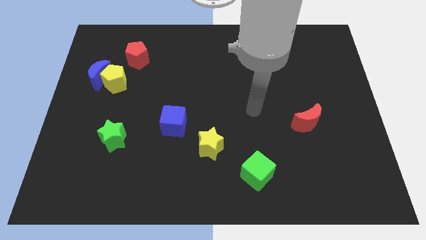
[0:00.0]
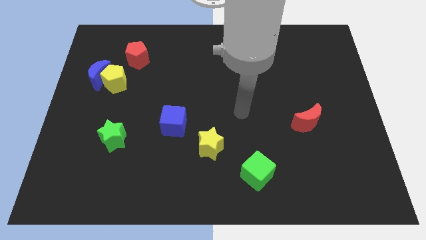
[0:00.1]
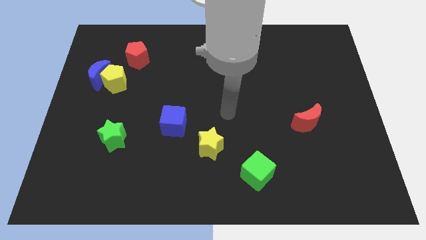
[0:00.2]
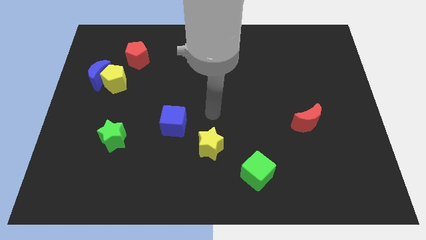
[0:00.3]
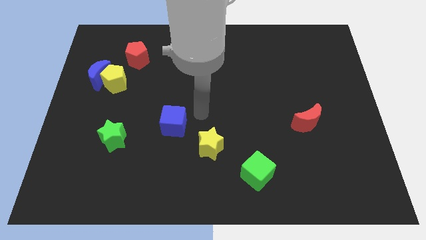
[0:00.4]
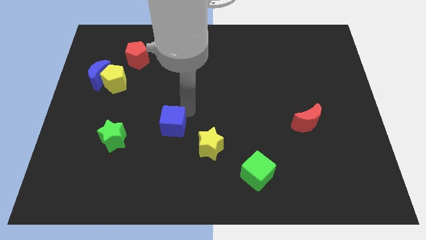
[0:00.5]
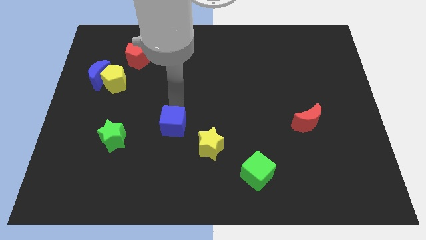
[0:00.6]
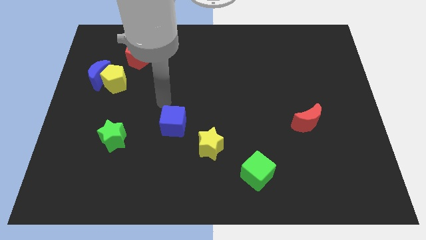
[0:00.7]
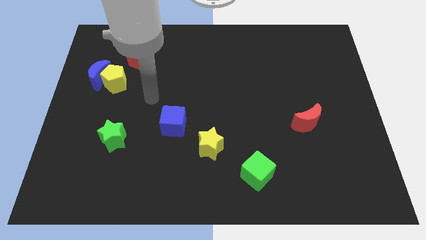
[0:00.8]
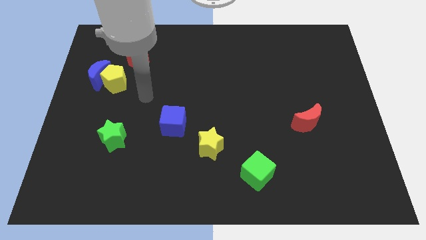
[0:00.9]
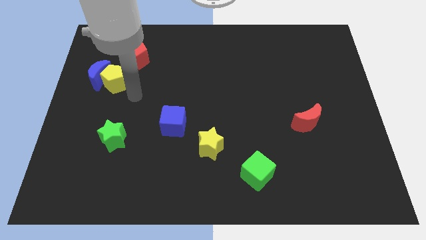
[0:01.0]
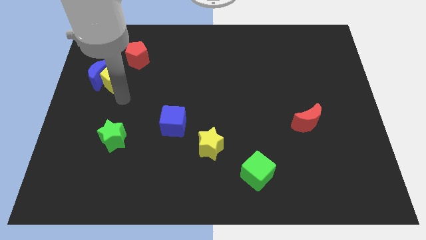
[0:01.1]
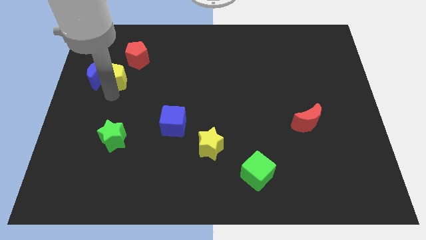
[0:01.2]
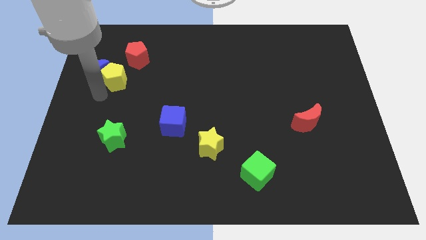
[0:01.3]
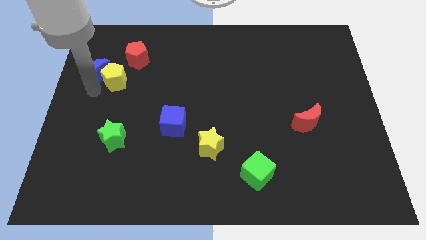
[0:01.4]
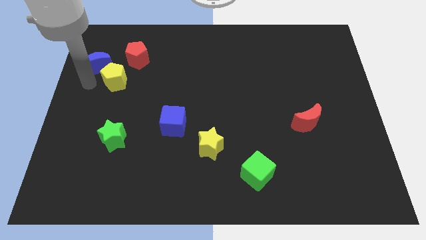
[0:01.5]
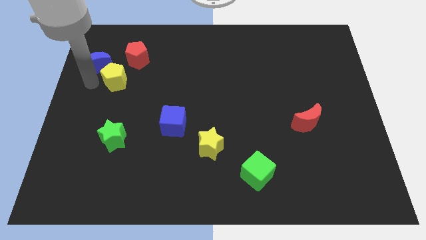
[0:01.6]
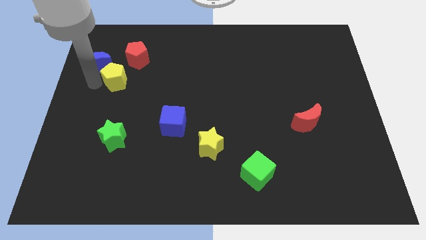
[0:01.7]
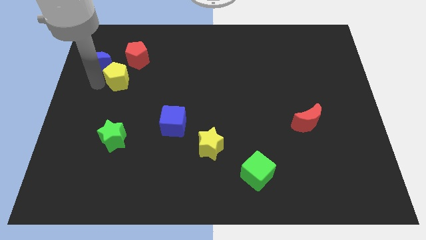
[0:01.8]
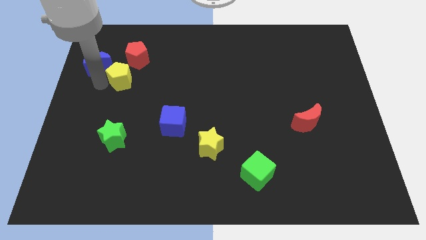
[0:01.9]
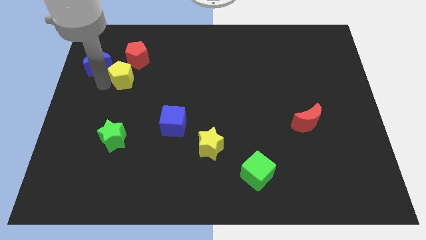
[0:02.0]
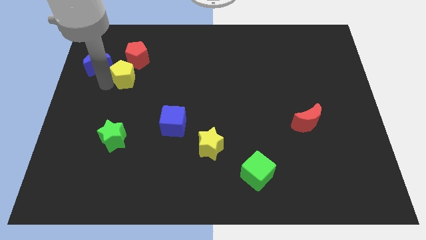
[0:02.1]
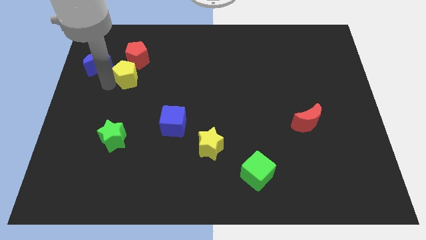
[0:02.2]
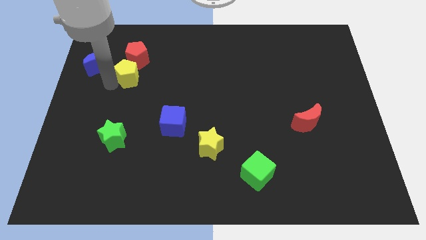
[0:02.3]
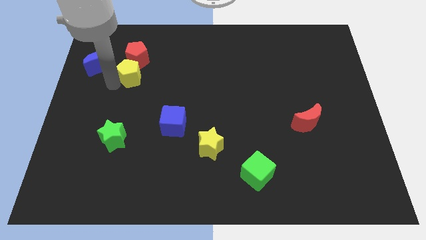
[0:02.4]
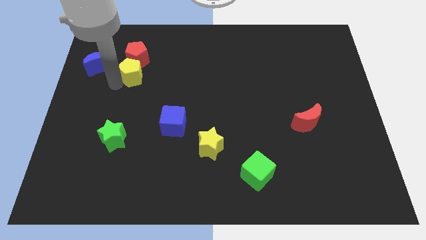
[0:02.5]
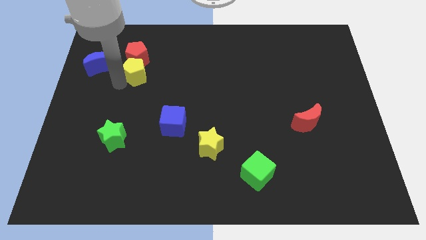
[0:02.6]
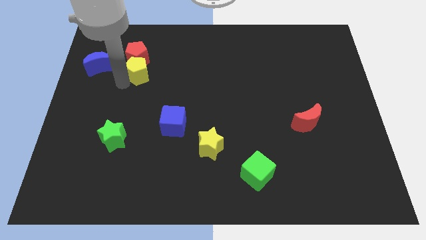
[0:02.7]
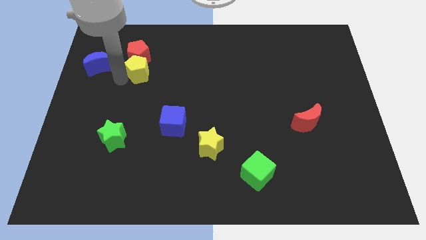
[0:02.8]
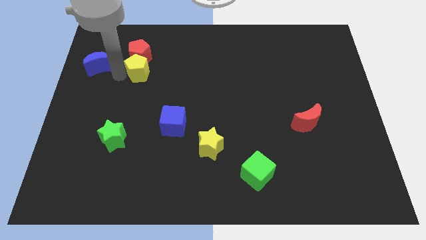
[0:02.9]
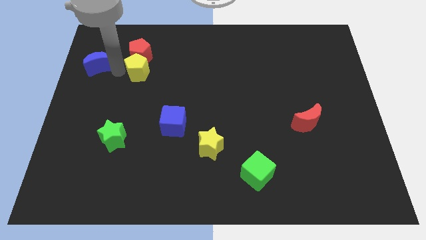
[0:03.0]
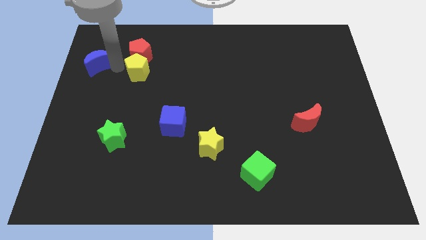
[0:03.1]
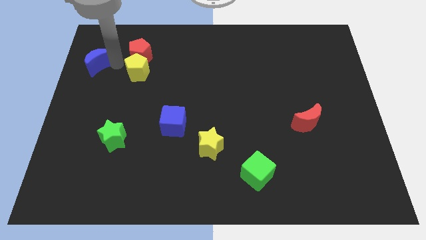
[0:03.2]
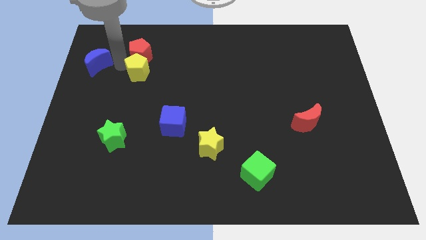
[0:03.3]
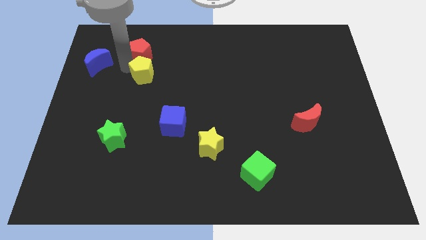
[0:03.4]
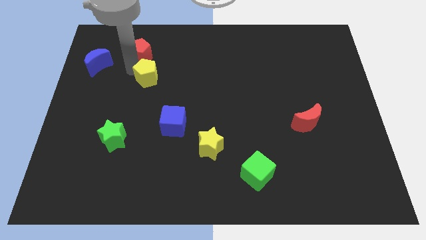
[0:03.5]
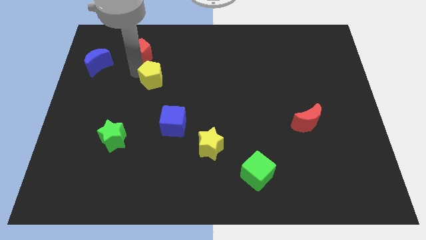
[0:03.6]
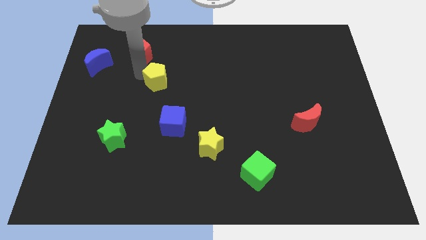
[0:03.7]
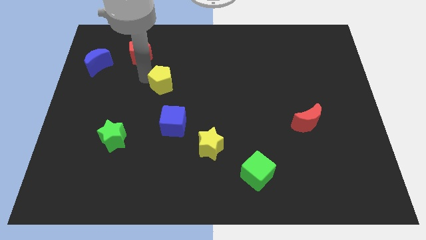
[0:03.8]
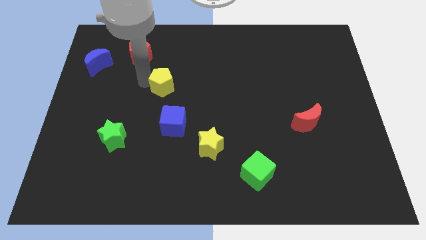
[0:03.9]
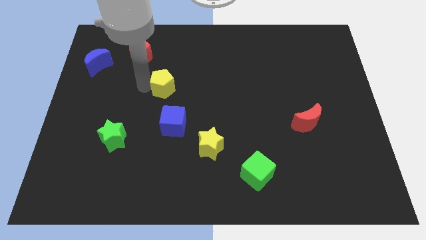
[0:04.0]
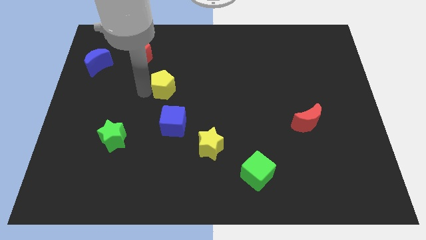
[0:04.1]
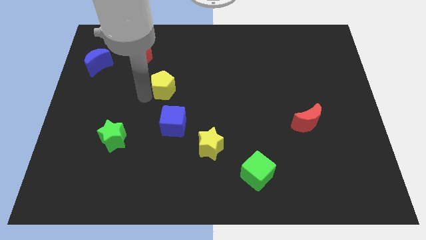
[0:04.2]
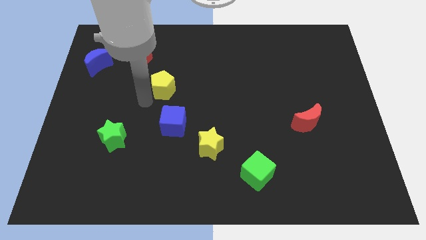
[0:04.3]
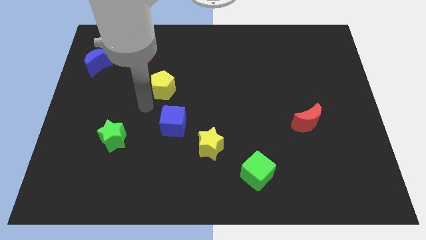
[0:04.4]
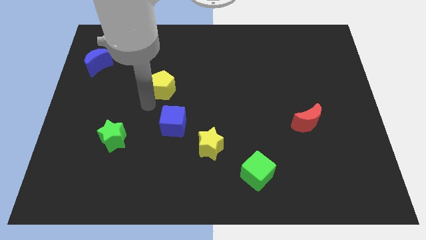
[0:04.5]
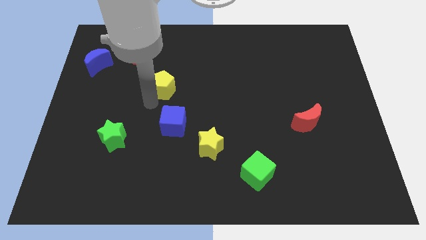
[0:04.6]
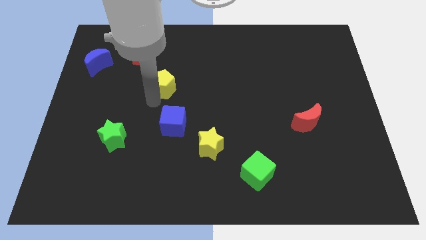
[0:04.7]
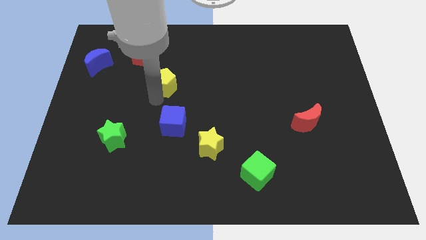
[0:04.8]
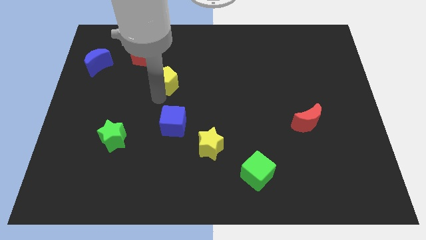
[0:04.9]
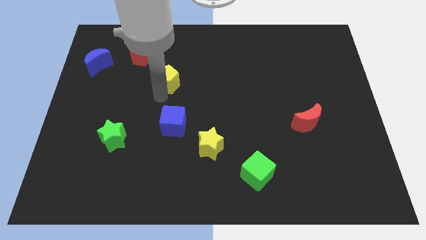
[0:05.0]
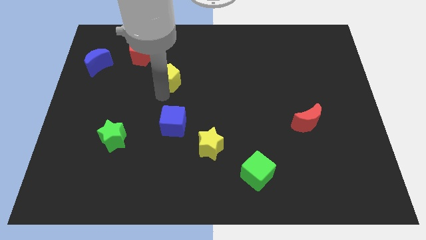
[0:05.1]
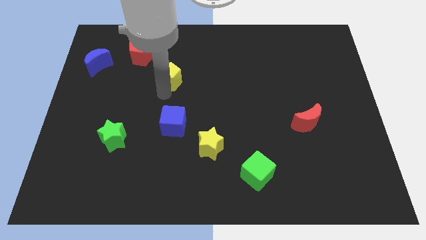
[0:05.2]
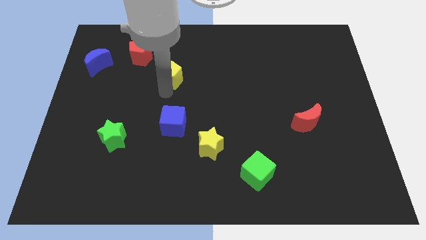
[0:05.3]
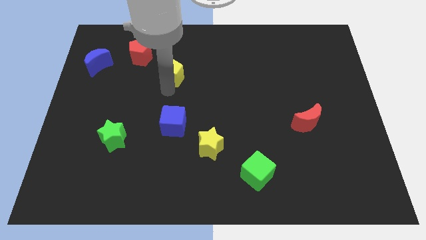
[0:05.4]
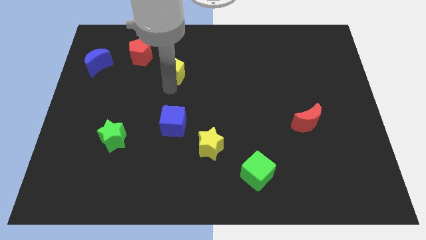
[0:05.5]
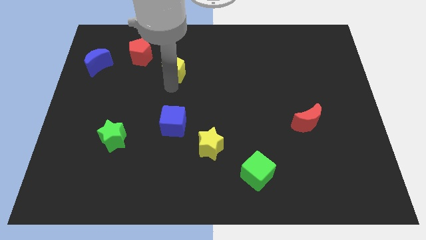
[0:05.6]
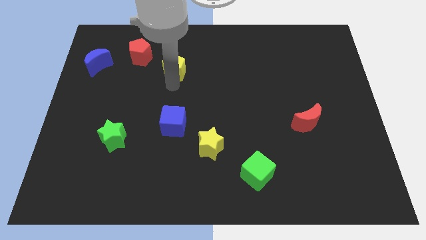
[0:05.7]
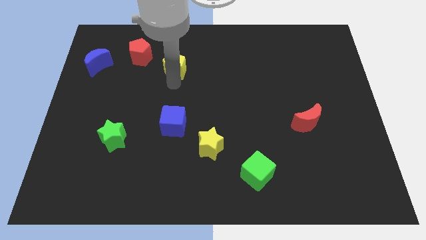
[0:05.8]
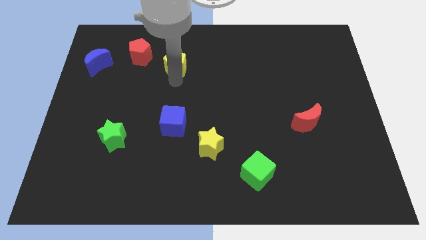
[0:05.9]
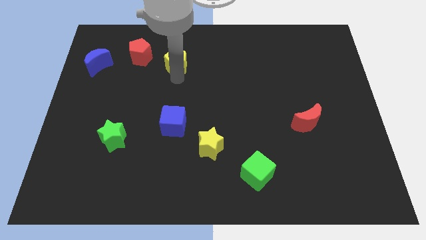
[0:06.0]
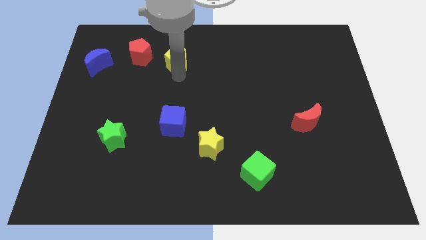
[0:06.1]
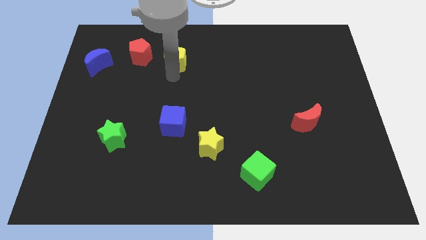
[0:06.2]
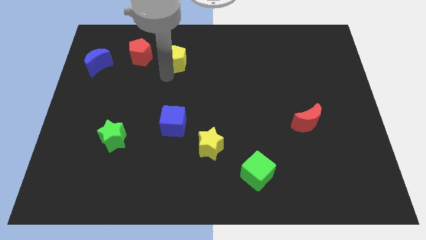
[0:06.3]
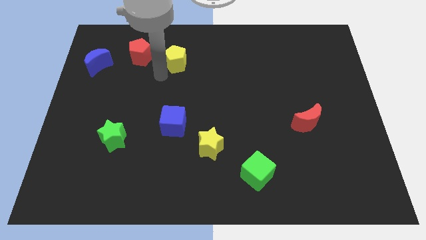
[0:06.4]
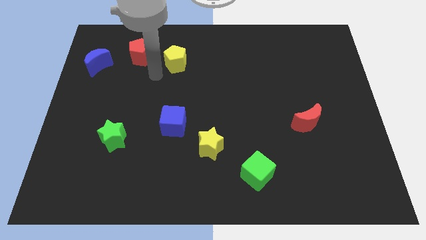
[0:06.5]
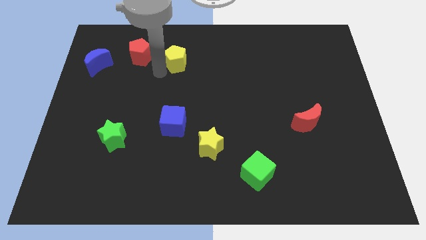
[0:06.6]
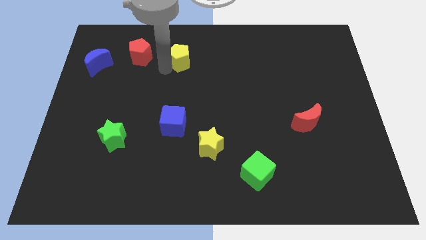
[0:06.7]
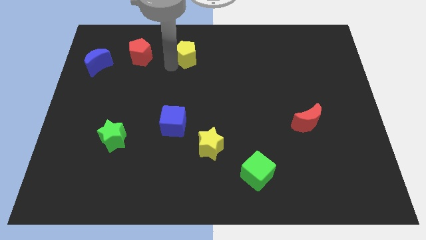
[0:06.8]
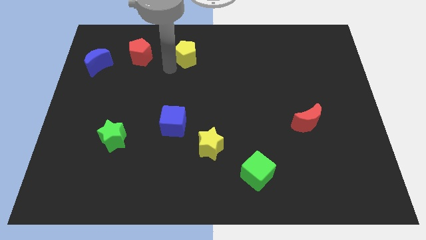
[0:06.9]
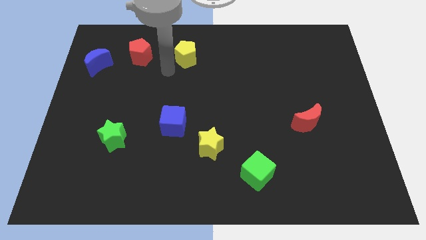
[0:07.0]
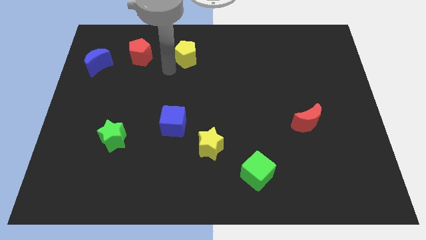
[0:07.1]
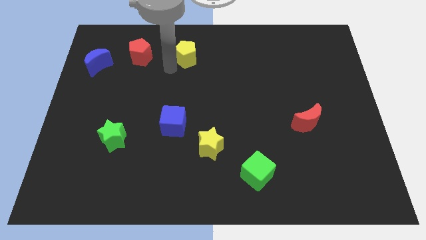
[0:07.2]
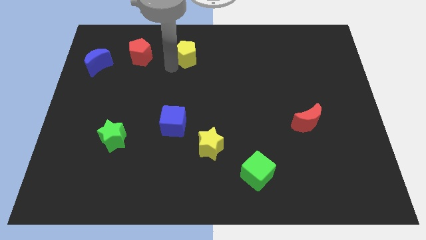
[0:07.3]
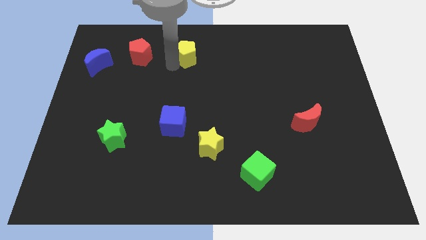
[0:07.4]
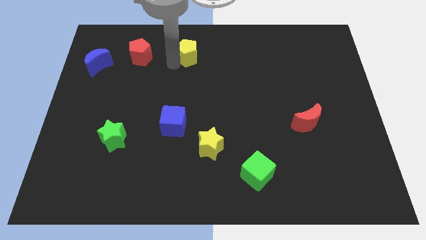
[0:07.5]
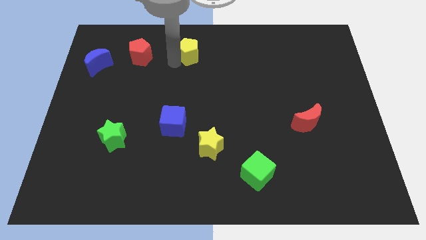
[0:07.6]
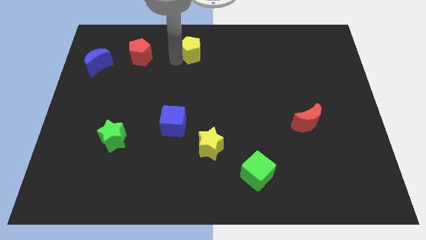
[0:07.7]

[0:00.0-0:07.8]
put the yellow pentagon to the top
